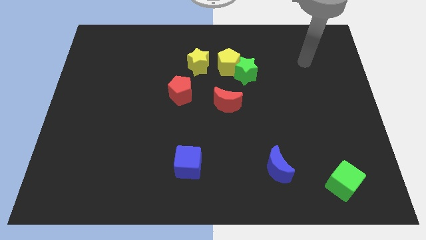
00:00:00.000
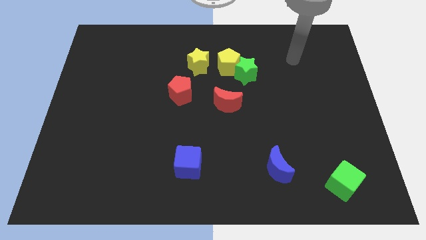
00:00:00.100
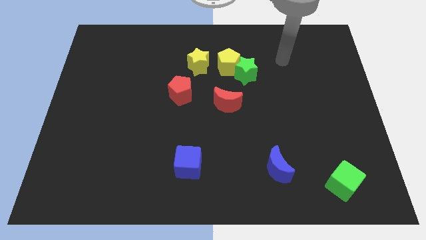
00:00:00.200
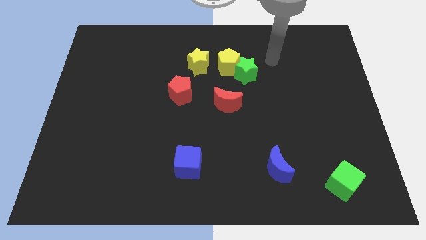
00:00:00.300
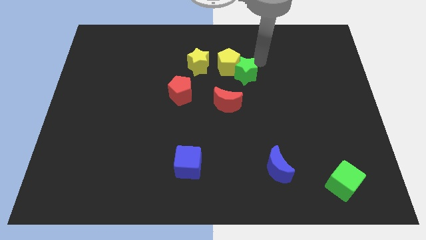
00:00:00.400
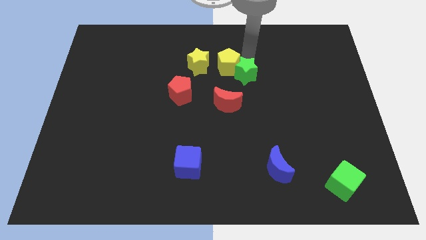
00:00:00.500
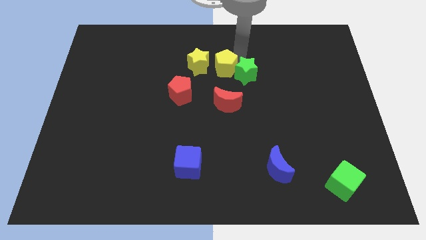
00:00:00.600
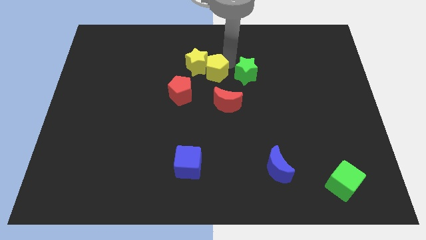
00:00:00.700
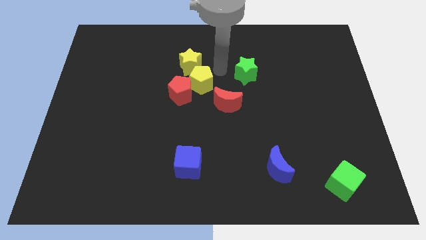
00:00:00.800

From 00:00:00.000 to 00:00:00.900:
pull the green star apart from the yellow pentagon

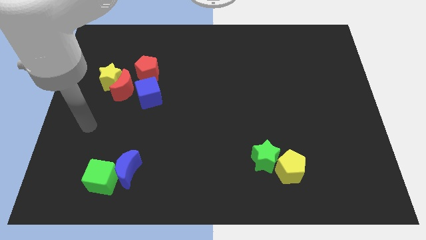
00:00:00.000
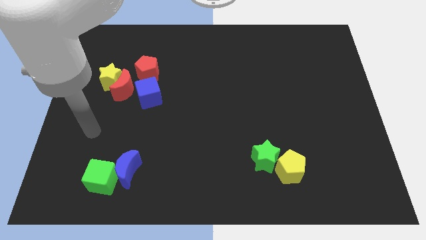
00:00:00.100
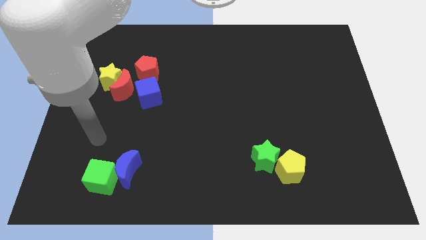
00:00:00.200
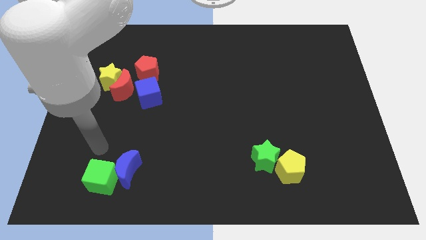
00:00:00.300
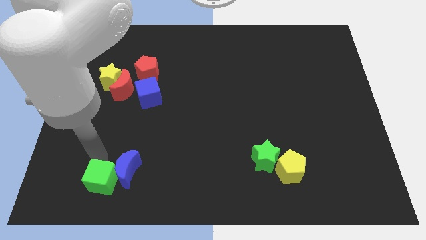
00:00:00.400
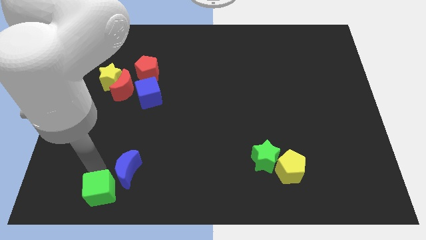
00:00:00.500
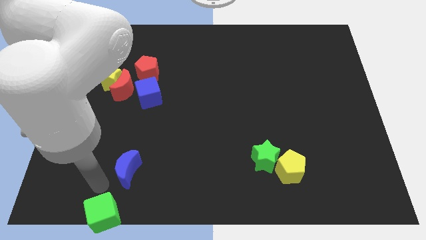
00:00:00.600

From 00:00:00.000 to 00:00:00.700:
move the blue moon away from the green cube

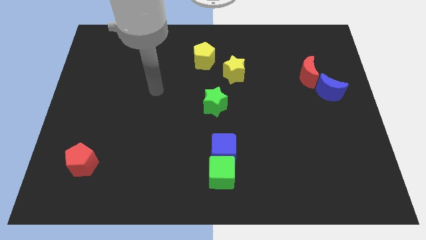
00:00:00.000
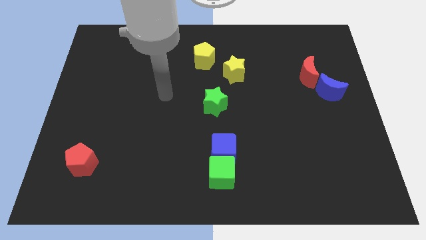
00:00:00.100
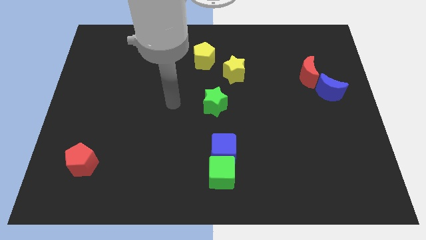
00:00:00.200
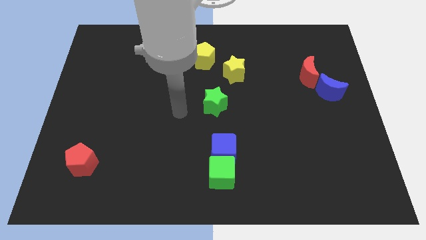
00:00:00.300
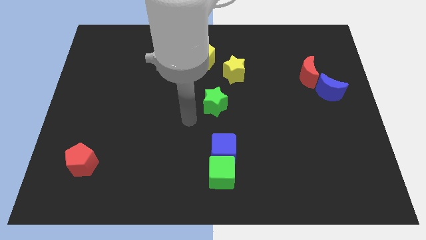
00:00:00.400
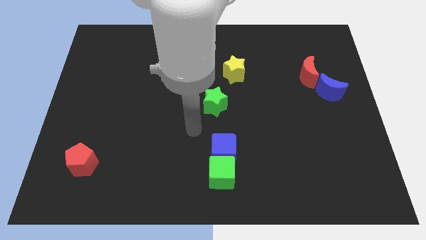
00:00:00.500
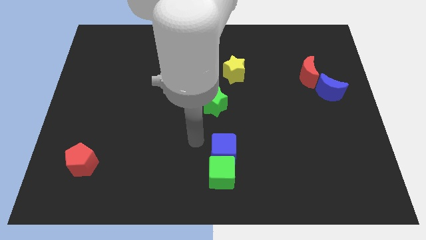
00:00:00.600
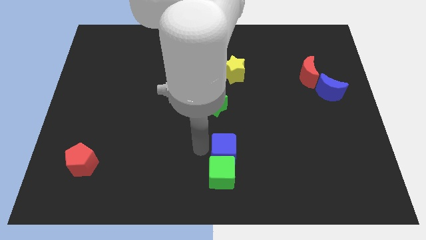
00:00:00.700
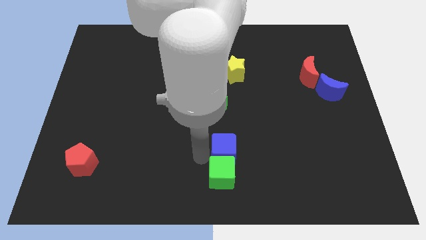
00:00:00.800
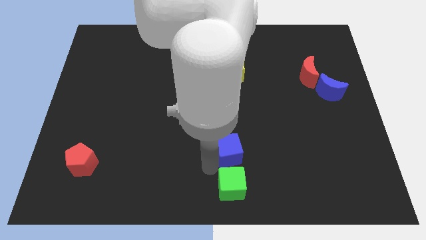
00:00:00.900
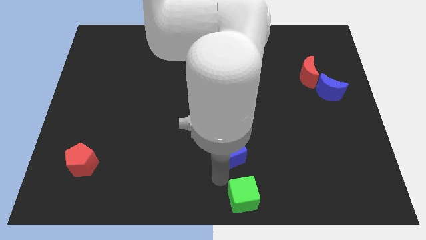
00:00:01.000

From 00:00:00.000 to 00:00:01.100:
separate the blue cube from the green cube

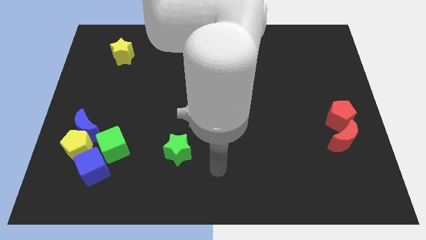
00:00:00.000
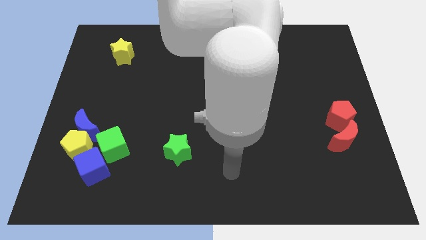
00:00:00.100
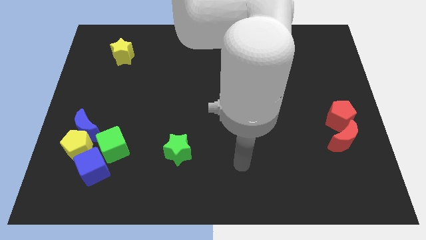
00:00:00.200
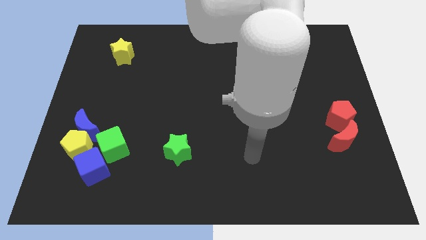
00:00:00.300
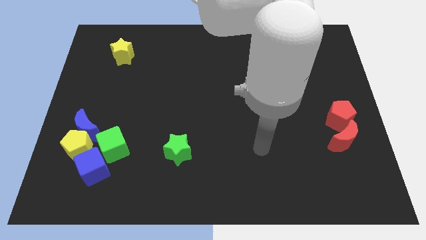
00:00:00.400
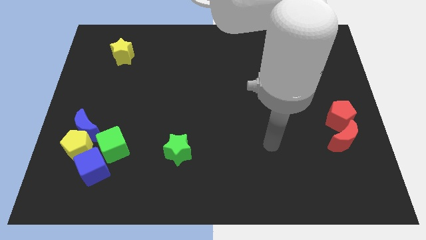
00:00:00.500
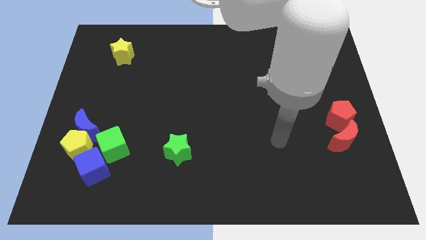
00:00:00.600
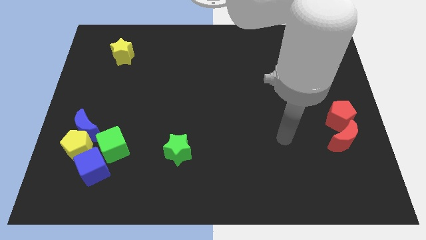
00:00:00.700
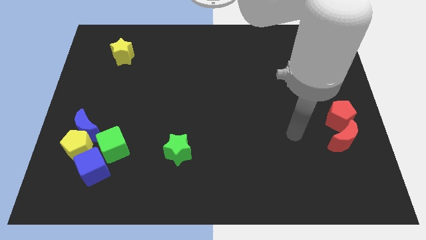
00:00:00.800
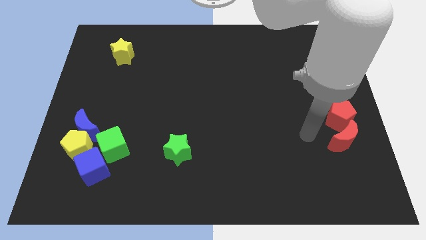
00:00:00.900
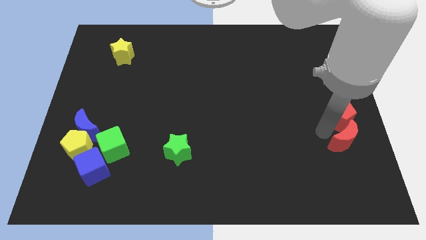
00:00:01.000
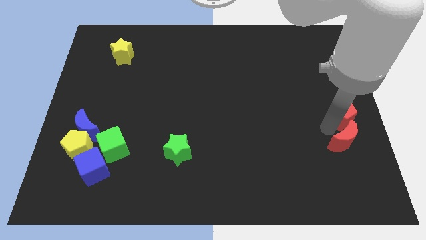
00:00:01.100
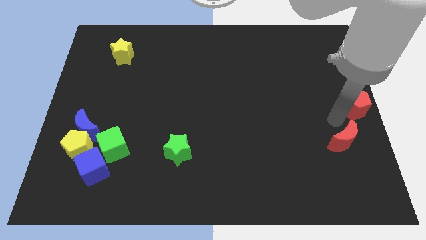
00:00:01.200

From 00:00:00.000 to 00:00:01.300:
separate the red moon from the red pentagon

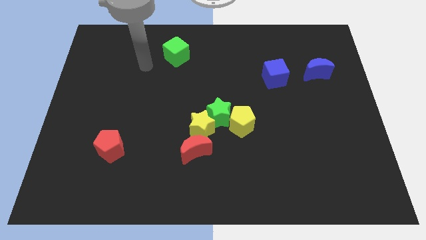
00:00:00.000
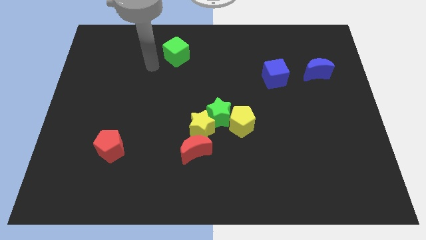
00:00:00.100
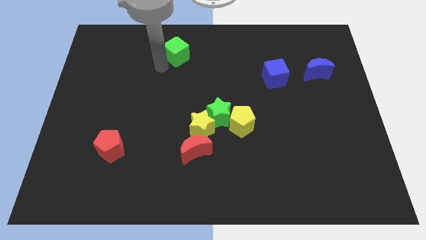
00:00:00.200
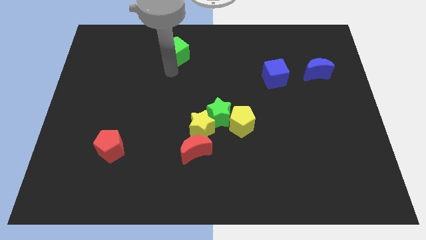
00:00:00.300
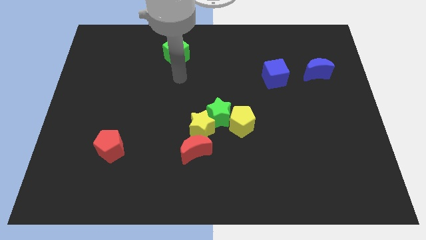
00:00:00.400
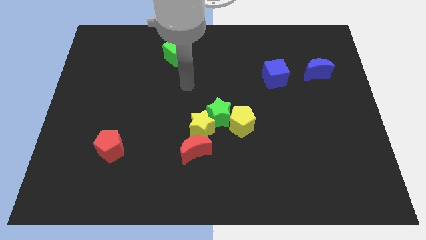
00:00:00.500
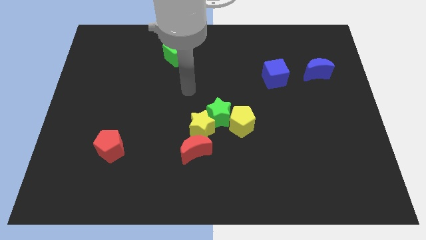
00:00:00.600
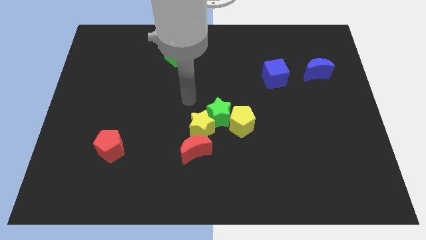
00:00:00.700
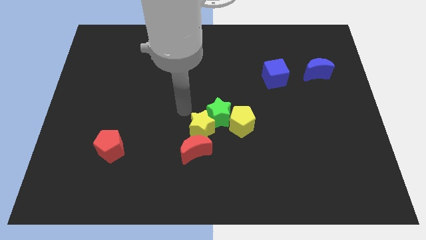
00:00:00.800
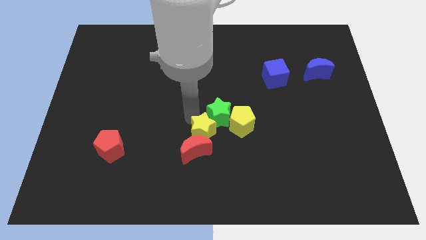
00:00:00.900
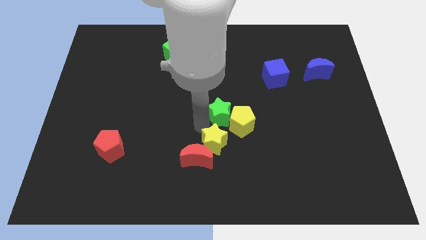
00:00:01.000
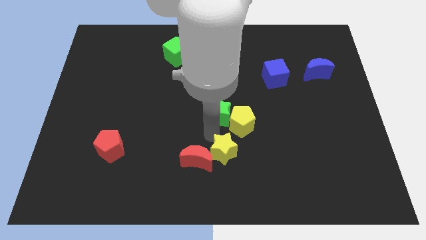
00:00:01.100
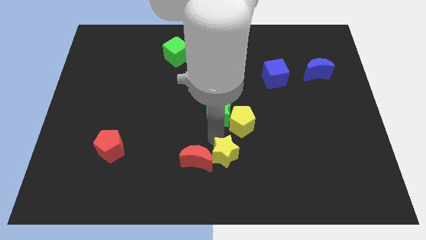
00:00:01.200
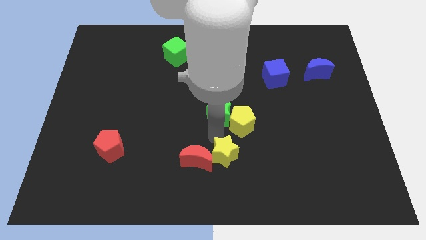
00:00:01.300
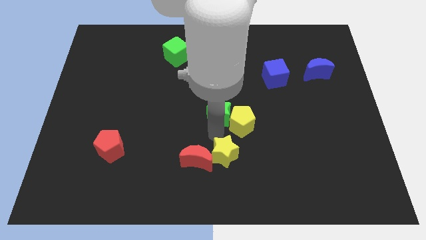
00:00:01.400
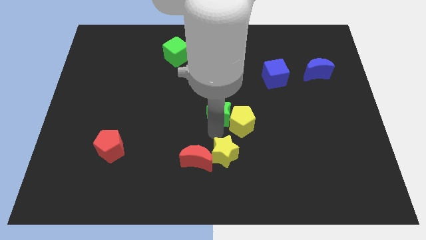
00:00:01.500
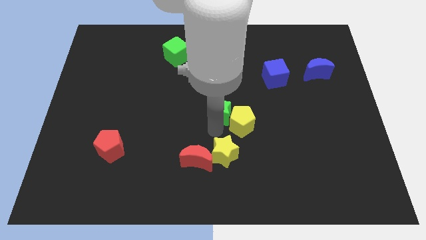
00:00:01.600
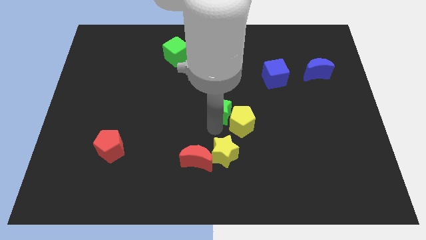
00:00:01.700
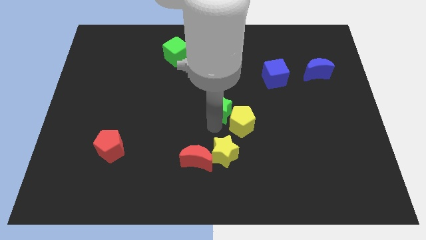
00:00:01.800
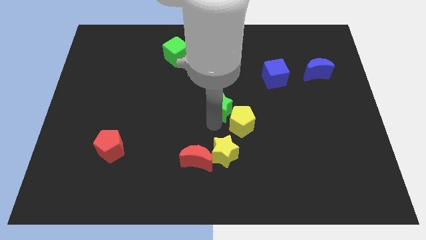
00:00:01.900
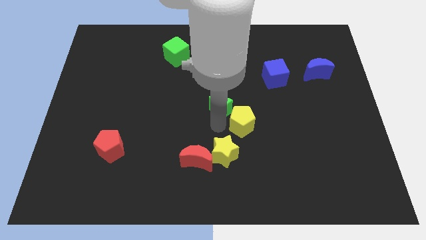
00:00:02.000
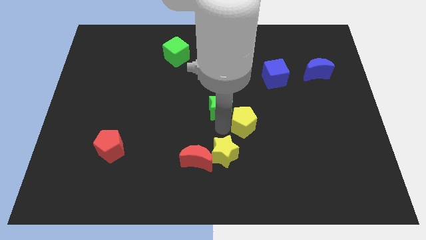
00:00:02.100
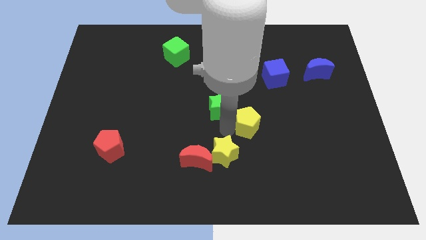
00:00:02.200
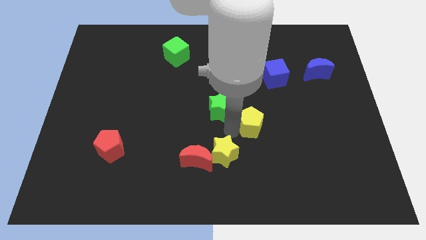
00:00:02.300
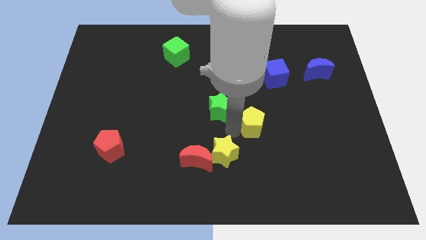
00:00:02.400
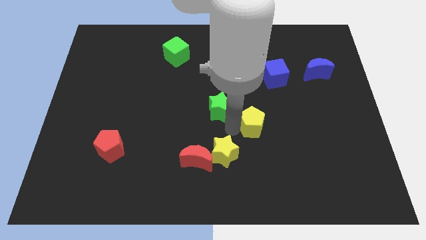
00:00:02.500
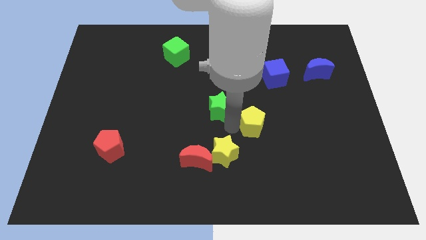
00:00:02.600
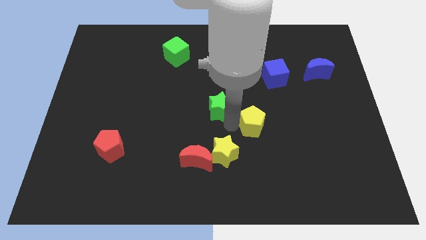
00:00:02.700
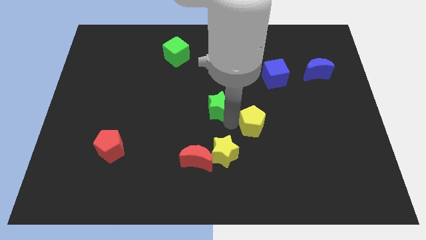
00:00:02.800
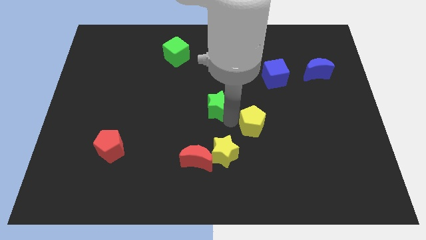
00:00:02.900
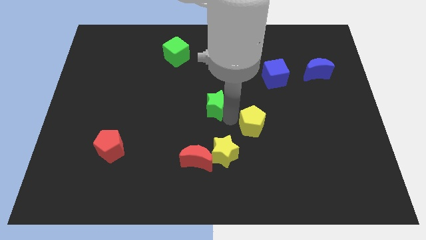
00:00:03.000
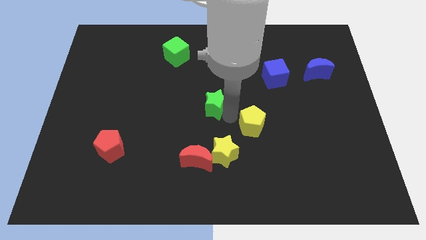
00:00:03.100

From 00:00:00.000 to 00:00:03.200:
separate the green star from the yellow pentagon and yellow star

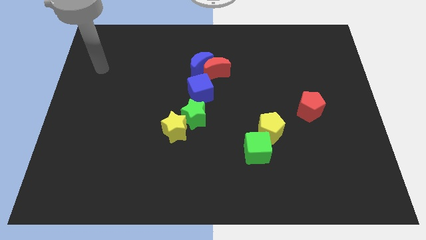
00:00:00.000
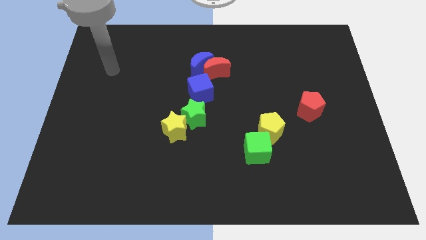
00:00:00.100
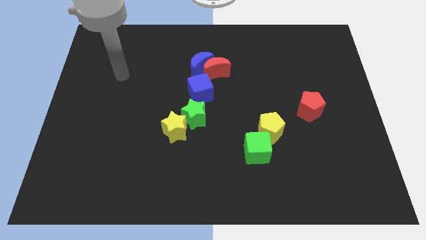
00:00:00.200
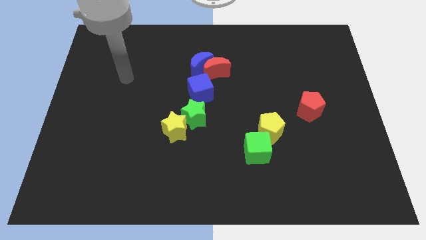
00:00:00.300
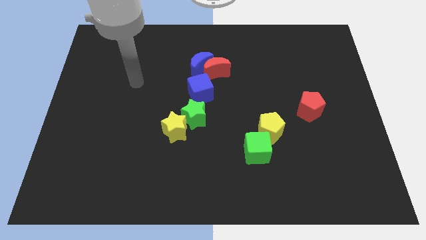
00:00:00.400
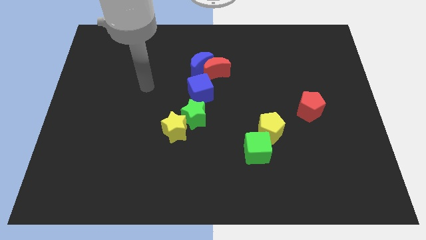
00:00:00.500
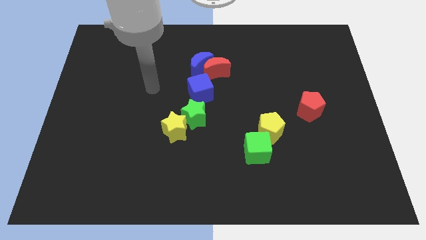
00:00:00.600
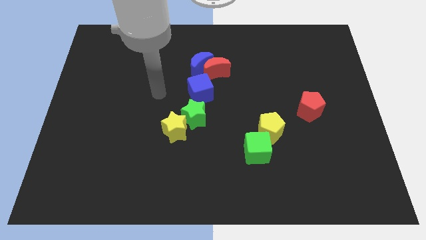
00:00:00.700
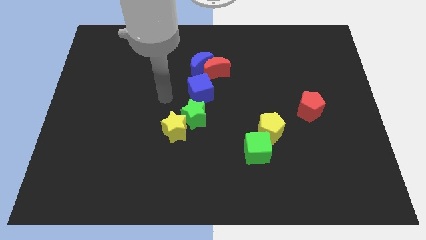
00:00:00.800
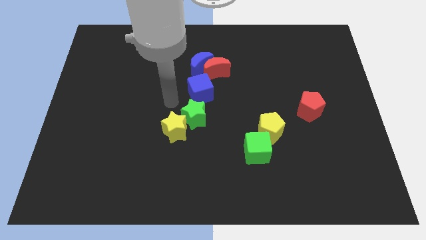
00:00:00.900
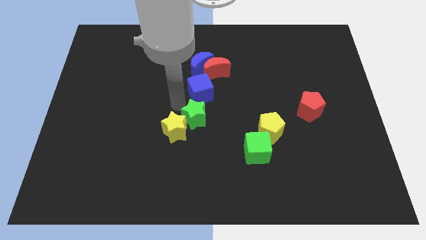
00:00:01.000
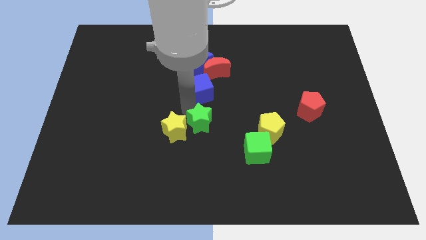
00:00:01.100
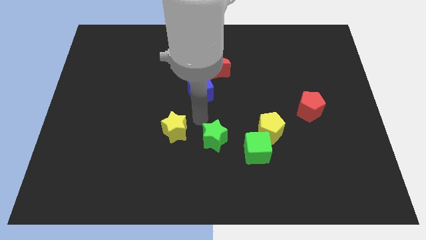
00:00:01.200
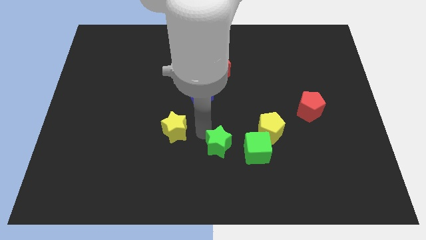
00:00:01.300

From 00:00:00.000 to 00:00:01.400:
move the yellow star away from the green star

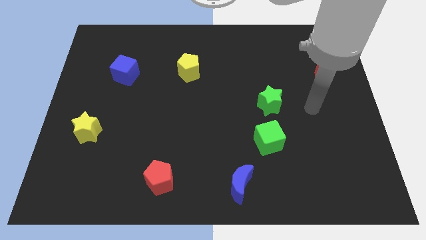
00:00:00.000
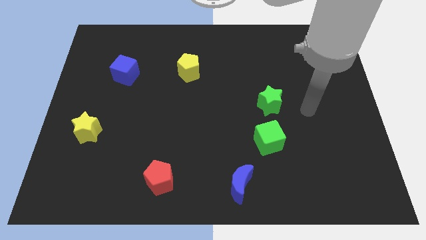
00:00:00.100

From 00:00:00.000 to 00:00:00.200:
separate the green cube from the green star

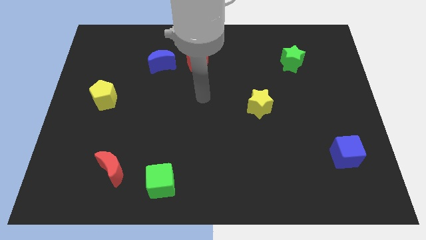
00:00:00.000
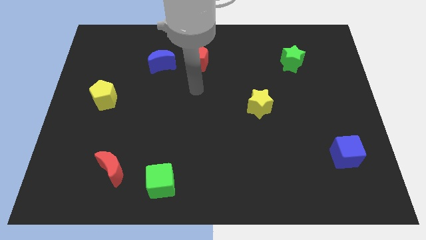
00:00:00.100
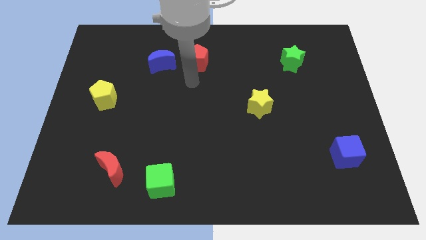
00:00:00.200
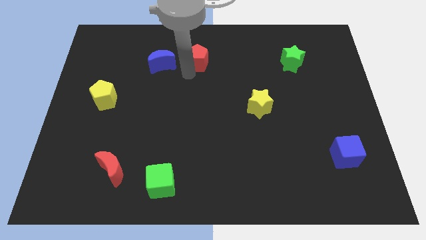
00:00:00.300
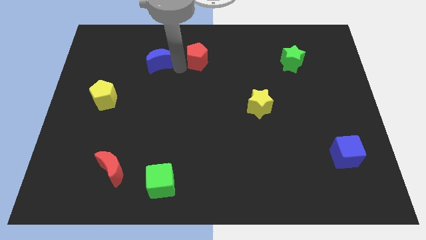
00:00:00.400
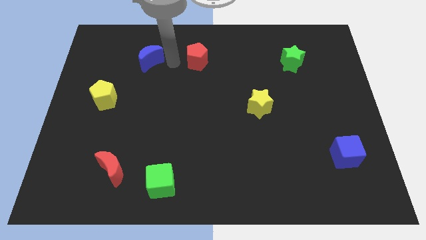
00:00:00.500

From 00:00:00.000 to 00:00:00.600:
move the red pentagon away from the blue moon
